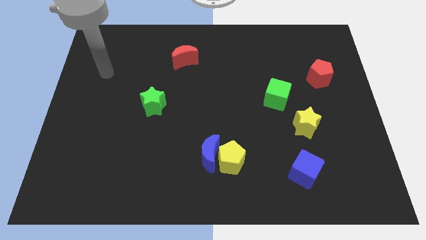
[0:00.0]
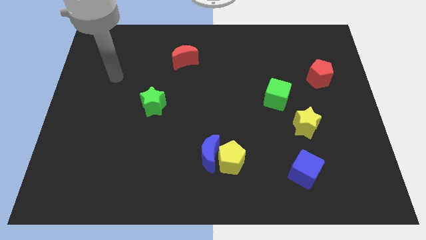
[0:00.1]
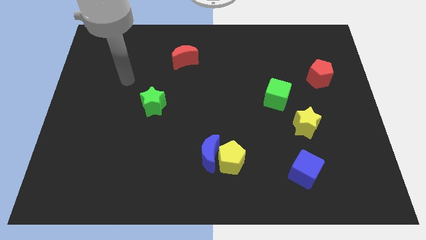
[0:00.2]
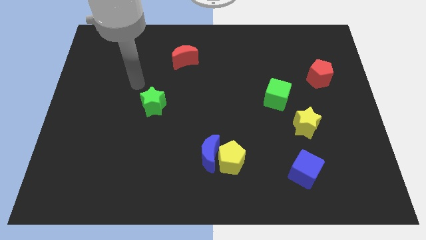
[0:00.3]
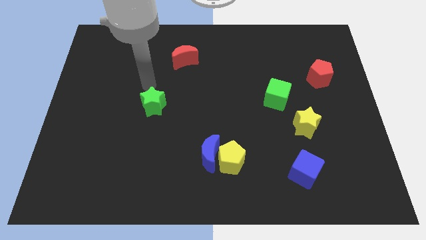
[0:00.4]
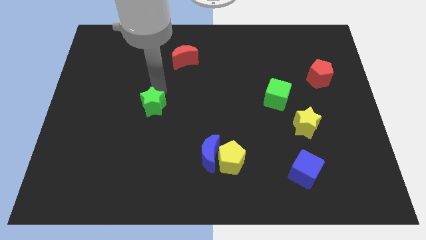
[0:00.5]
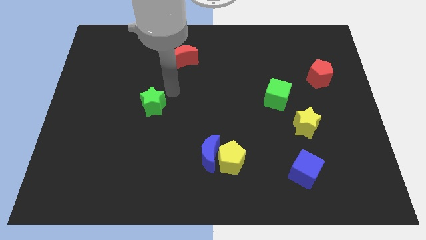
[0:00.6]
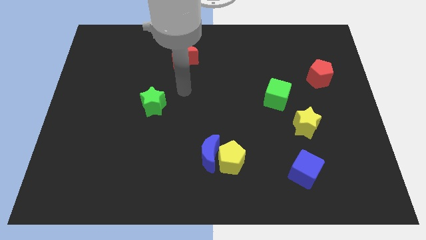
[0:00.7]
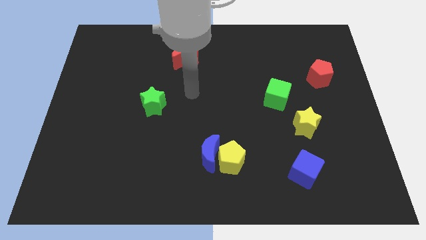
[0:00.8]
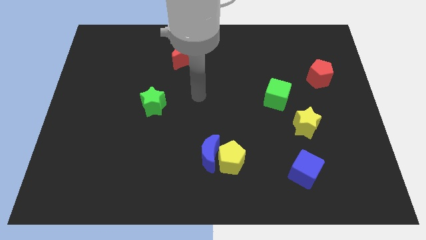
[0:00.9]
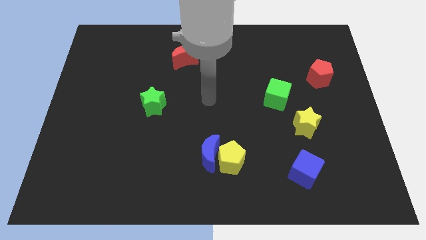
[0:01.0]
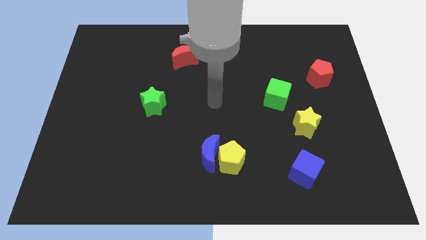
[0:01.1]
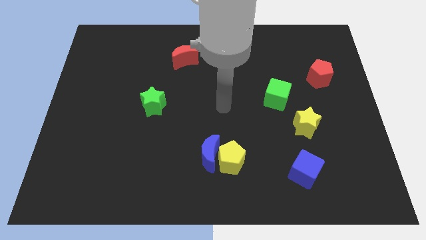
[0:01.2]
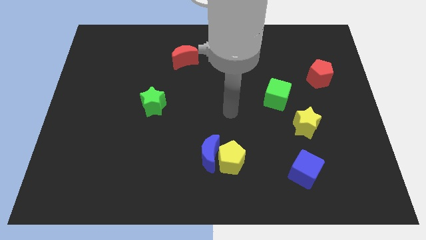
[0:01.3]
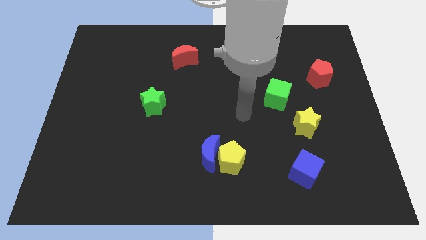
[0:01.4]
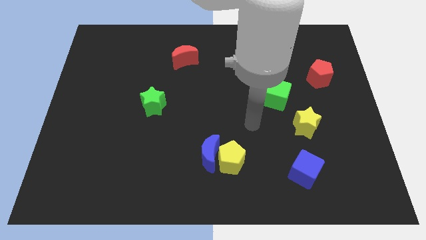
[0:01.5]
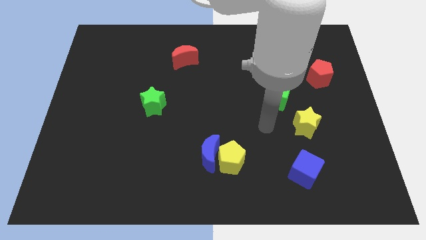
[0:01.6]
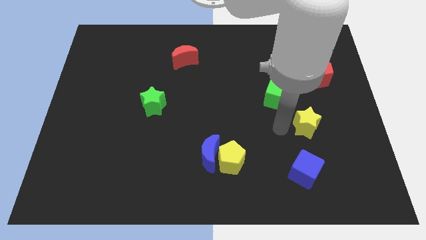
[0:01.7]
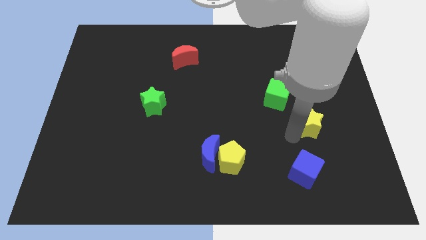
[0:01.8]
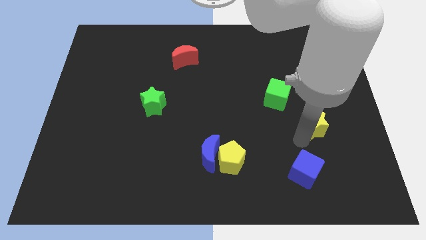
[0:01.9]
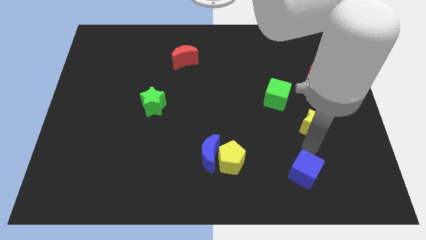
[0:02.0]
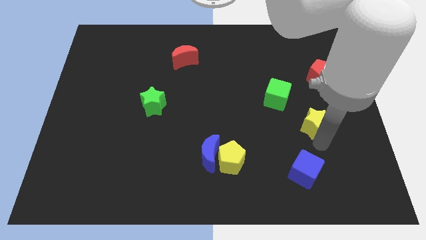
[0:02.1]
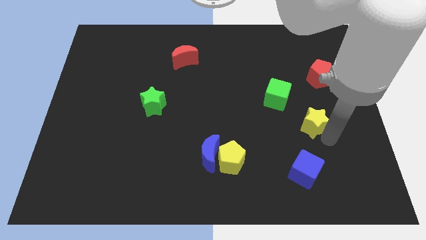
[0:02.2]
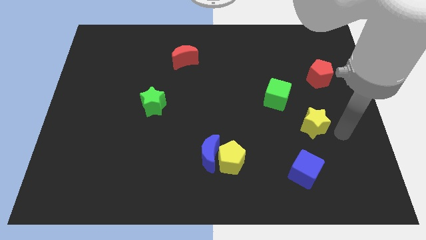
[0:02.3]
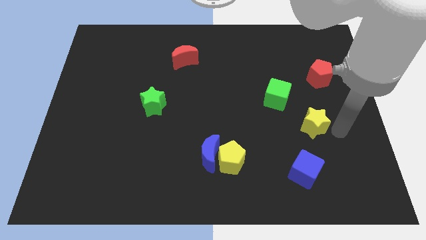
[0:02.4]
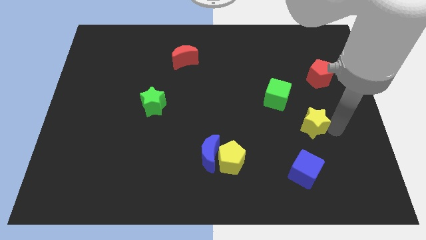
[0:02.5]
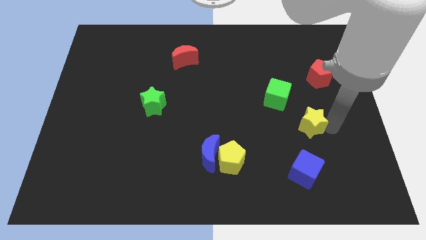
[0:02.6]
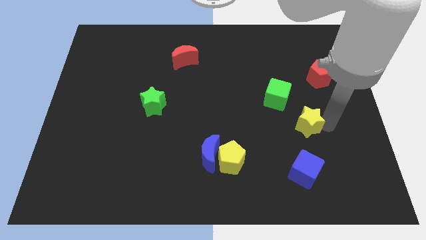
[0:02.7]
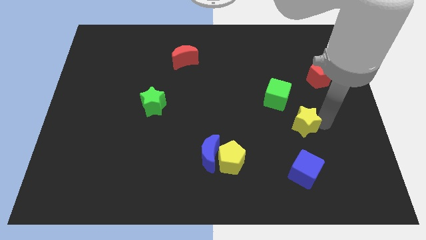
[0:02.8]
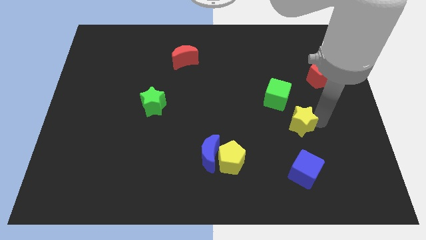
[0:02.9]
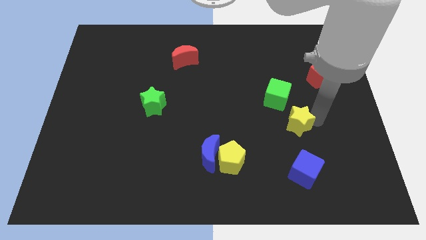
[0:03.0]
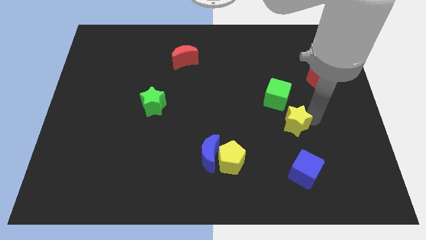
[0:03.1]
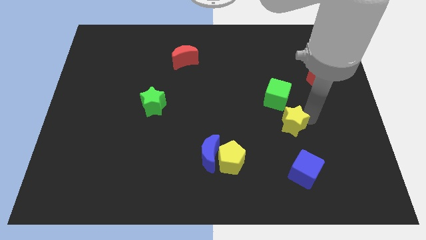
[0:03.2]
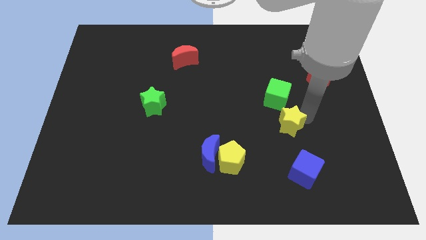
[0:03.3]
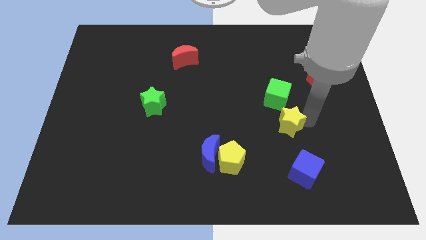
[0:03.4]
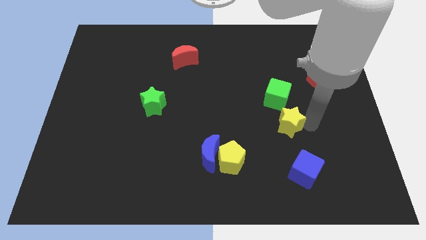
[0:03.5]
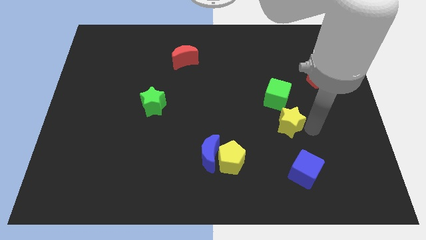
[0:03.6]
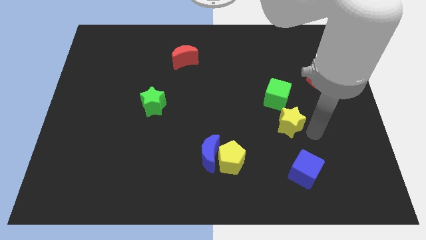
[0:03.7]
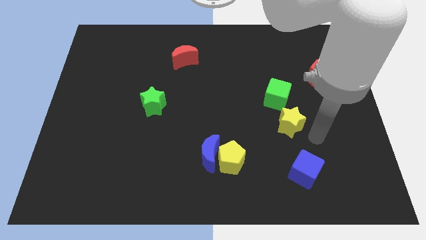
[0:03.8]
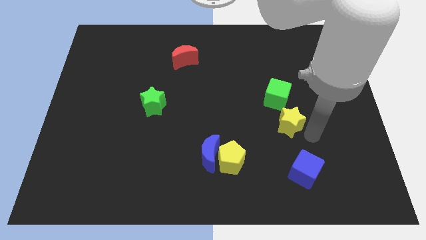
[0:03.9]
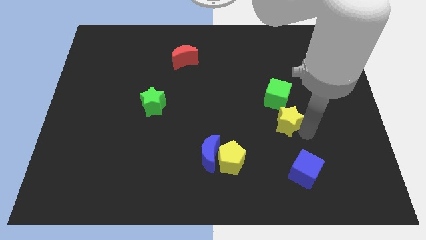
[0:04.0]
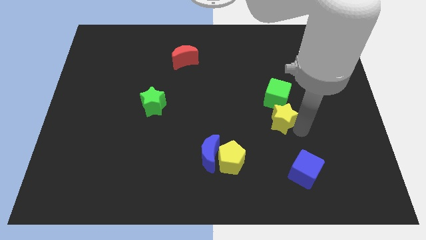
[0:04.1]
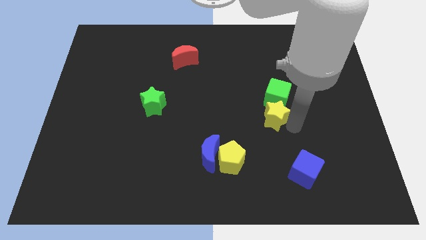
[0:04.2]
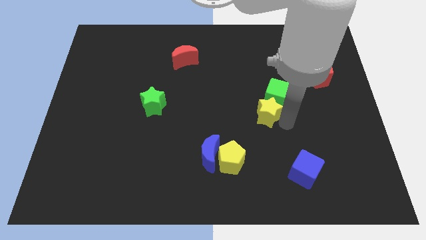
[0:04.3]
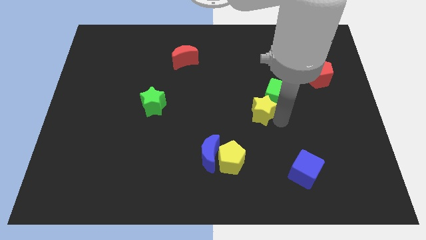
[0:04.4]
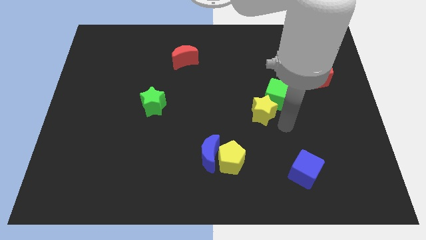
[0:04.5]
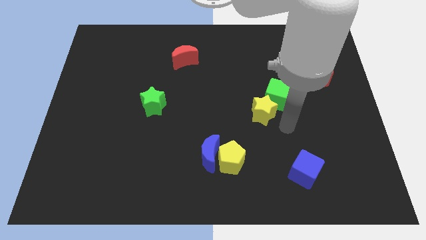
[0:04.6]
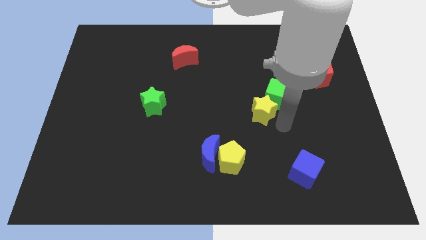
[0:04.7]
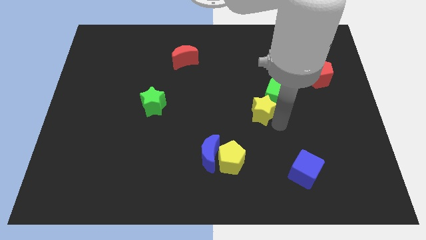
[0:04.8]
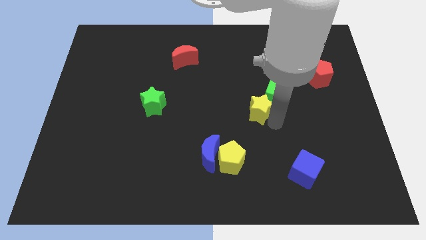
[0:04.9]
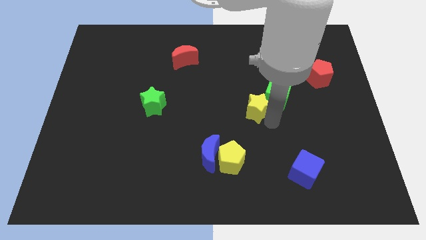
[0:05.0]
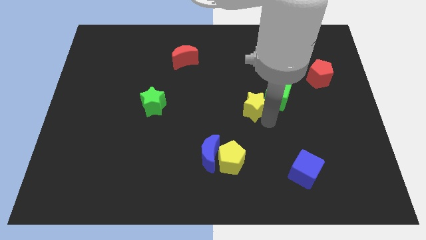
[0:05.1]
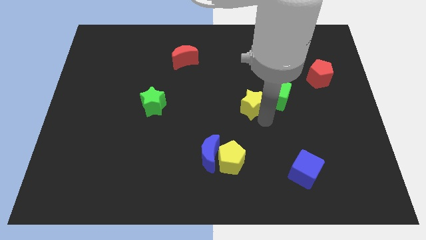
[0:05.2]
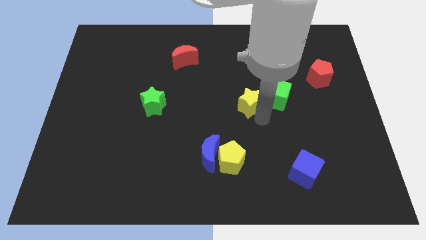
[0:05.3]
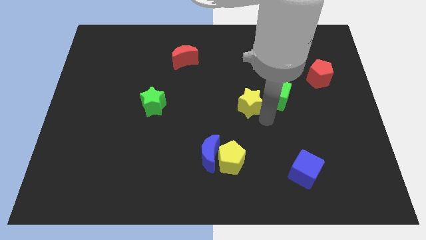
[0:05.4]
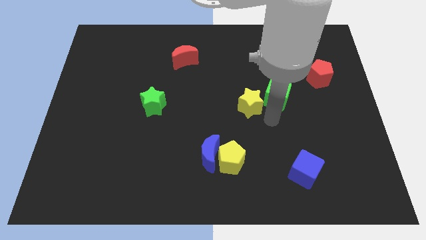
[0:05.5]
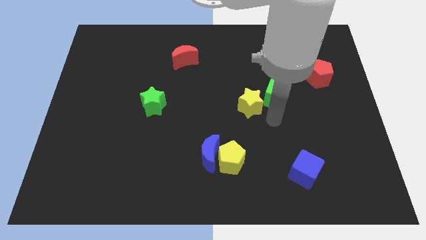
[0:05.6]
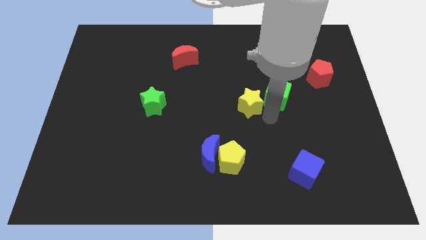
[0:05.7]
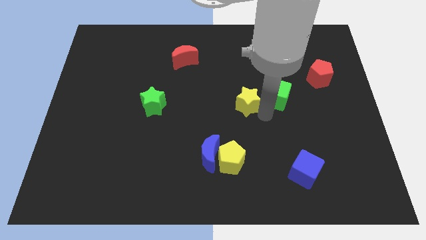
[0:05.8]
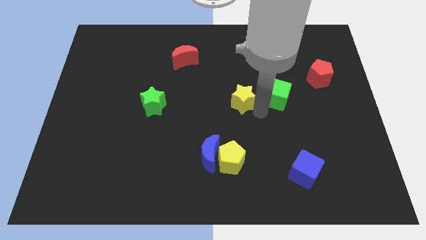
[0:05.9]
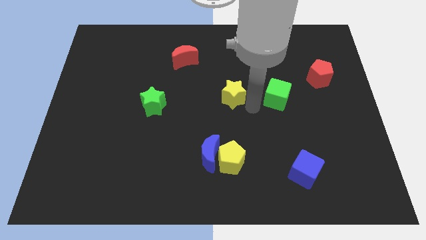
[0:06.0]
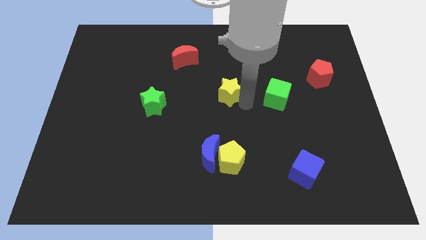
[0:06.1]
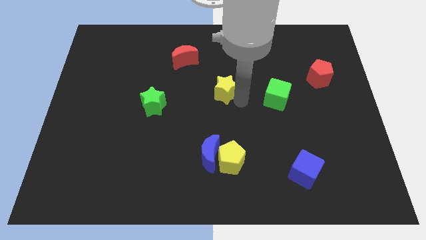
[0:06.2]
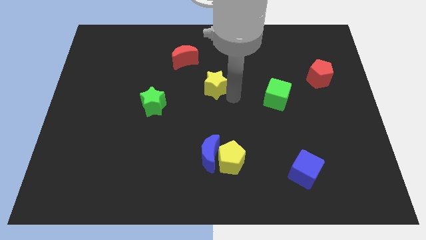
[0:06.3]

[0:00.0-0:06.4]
push the yellow star to the bottom right side of the red moon
